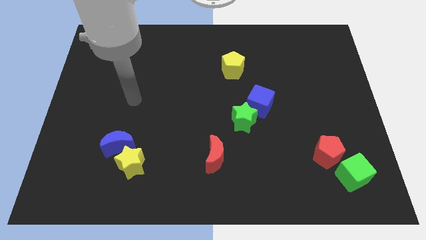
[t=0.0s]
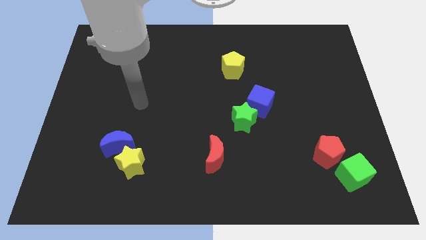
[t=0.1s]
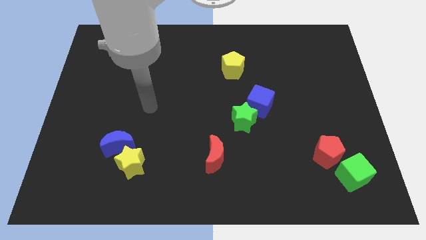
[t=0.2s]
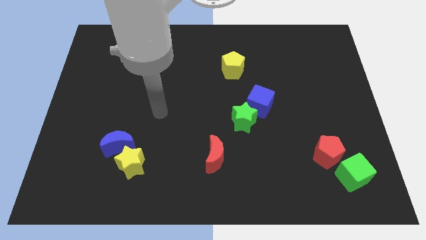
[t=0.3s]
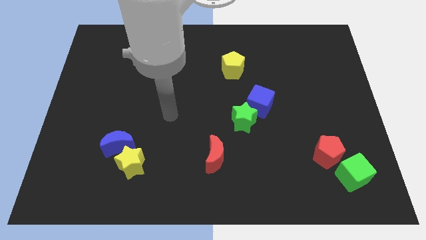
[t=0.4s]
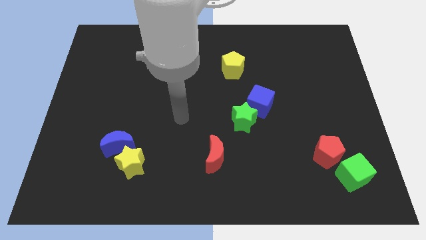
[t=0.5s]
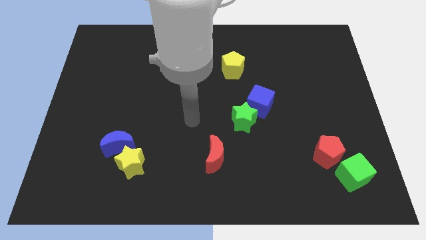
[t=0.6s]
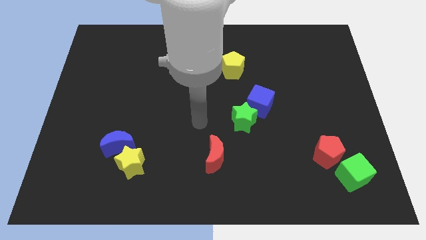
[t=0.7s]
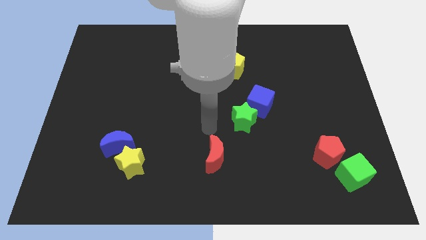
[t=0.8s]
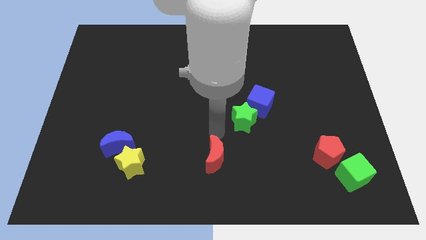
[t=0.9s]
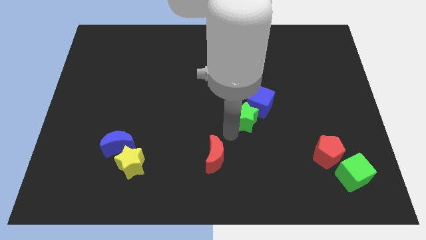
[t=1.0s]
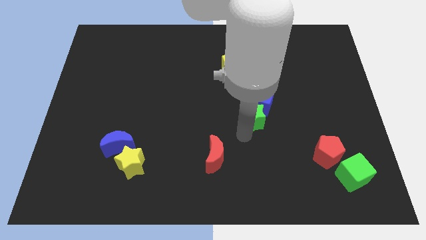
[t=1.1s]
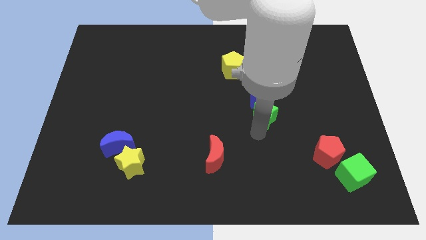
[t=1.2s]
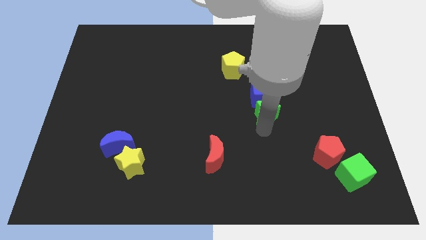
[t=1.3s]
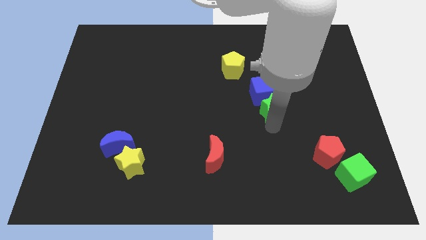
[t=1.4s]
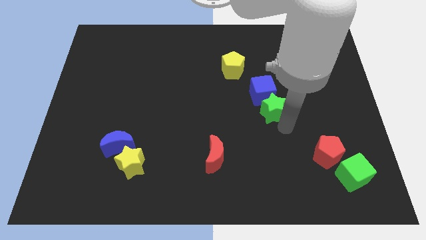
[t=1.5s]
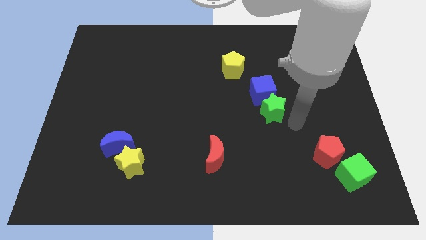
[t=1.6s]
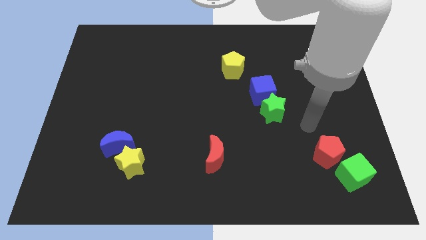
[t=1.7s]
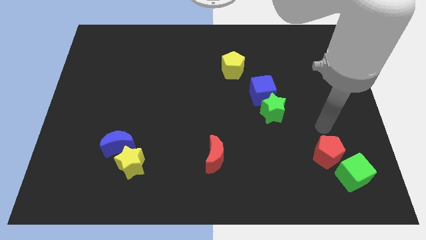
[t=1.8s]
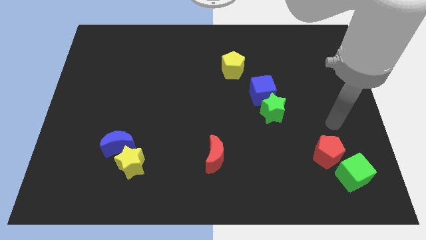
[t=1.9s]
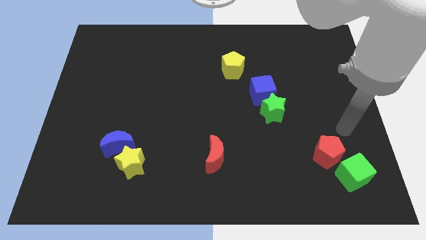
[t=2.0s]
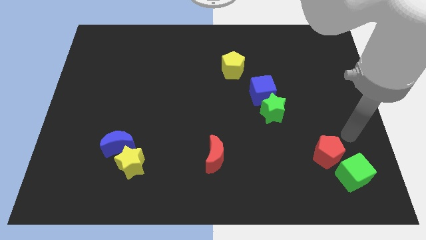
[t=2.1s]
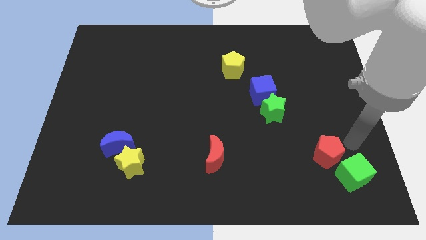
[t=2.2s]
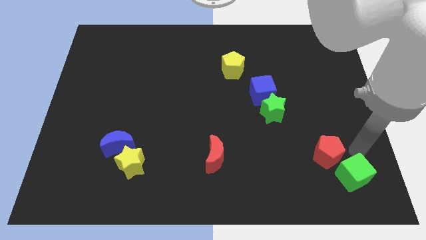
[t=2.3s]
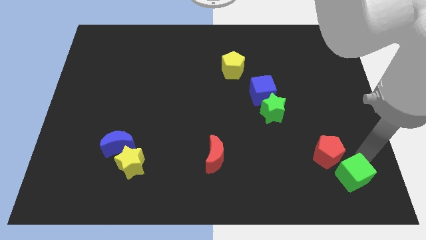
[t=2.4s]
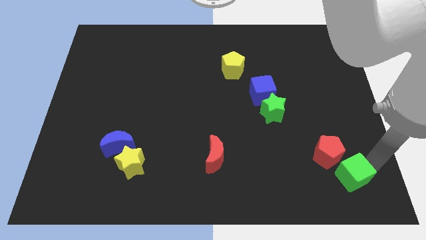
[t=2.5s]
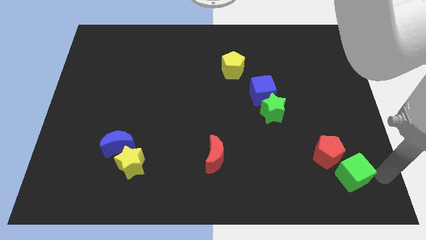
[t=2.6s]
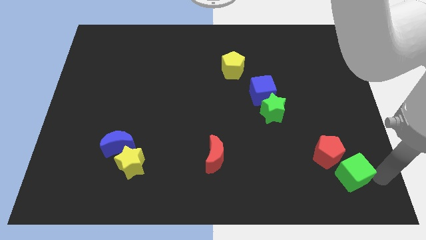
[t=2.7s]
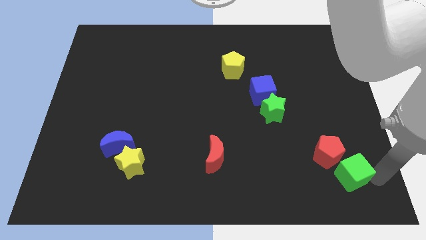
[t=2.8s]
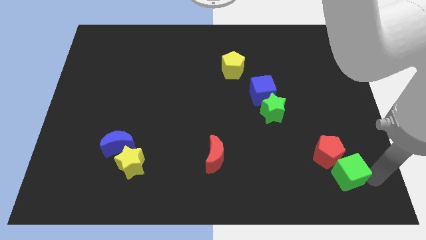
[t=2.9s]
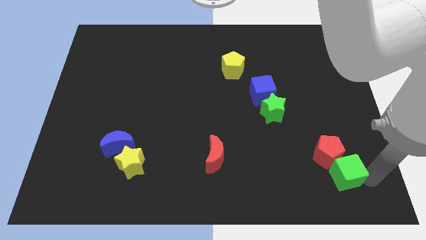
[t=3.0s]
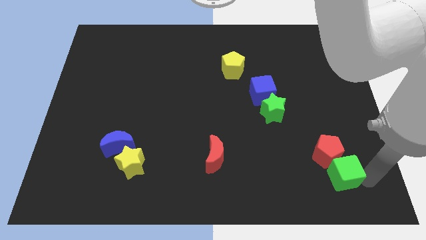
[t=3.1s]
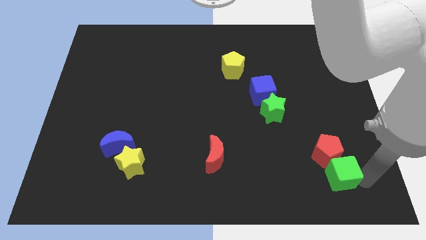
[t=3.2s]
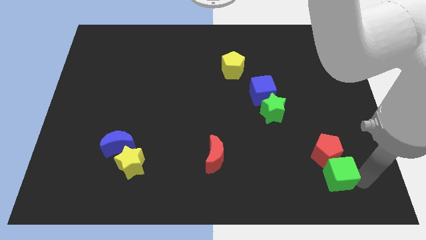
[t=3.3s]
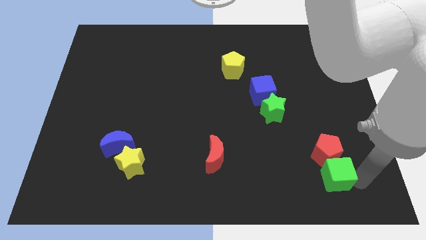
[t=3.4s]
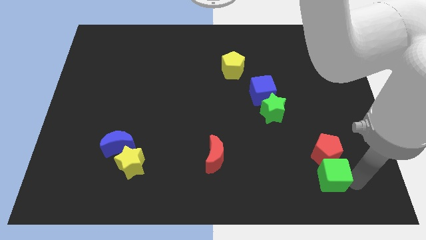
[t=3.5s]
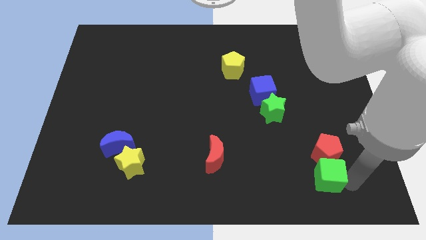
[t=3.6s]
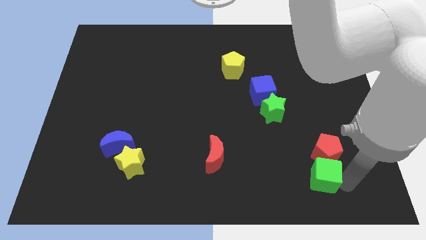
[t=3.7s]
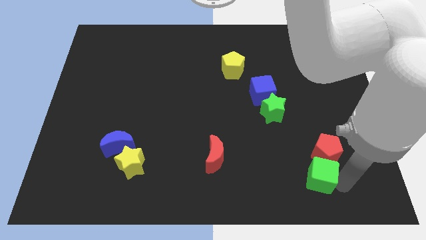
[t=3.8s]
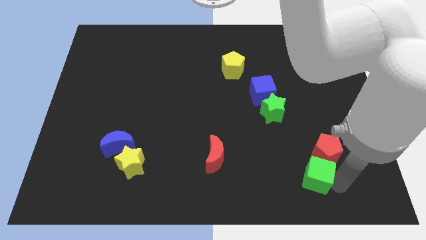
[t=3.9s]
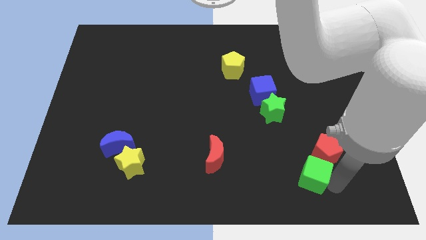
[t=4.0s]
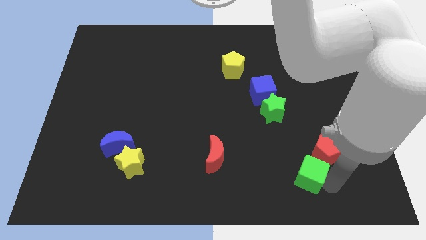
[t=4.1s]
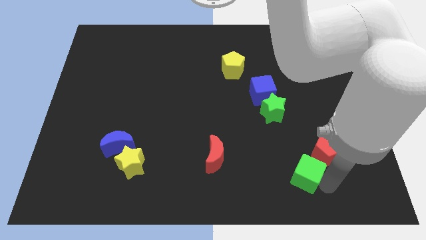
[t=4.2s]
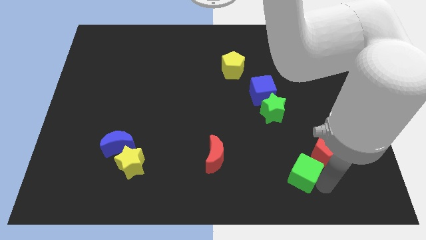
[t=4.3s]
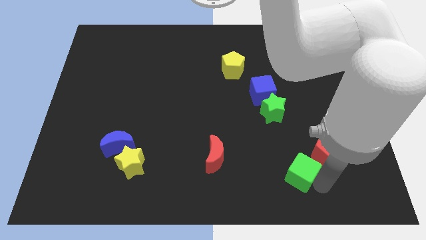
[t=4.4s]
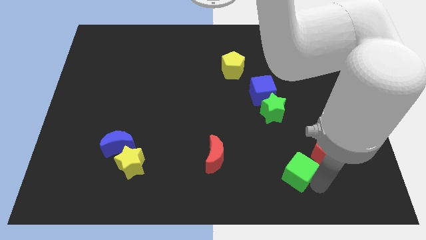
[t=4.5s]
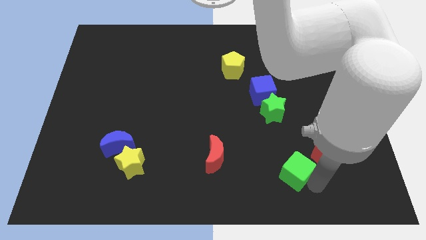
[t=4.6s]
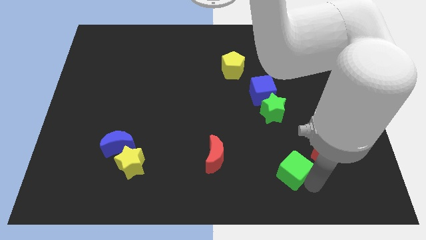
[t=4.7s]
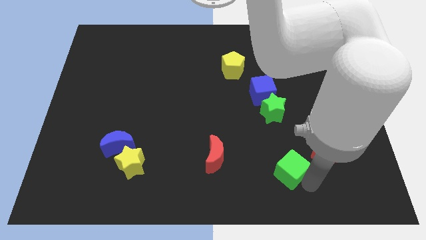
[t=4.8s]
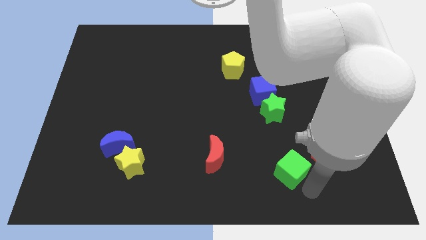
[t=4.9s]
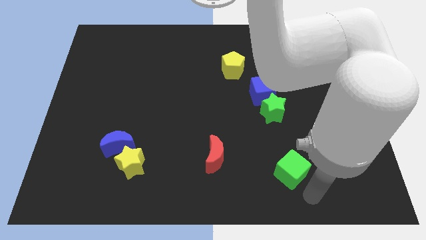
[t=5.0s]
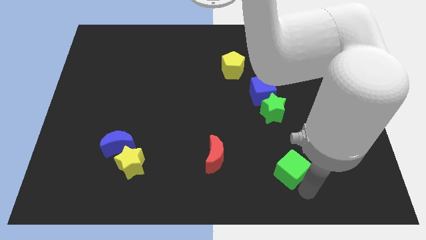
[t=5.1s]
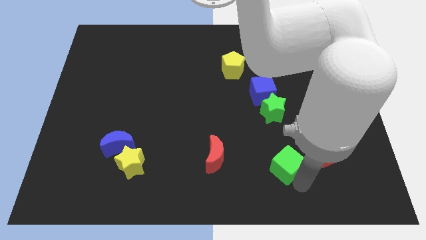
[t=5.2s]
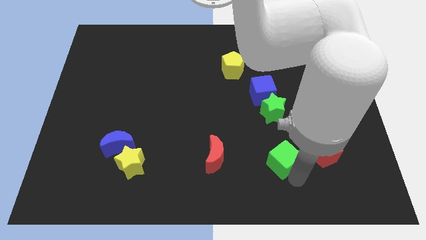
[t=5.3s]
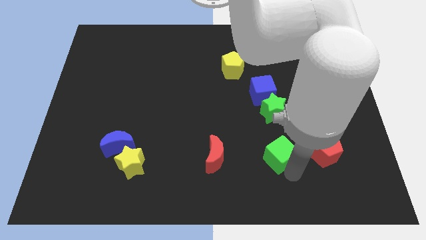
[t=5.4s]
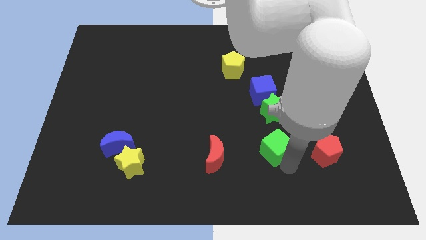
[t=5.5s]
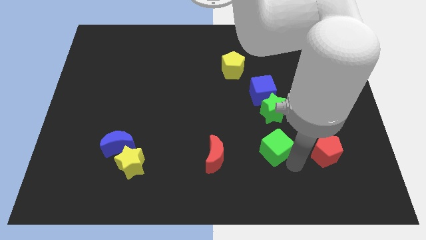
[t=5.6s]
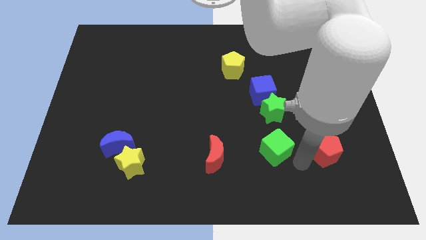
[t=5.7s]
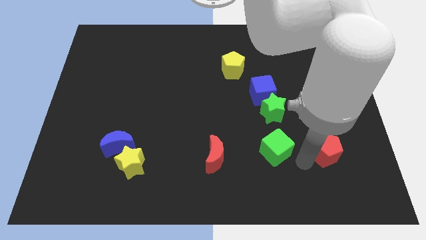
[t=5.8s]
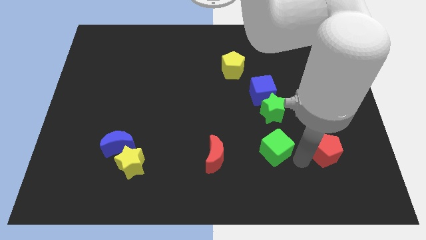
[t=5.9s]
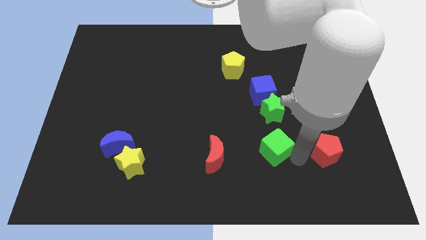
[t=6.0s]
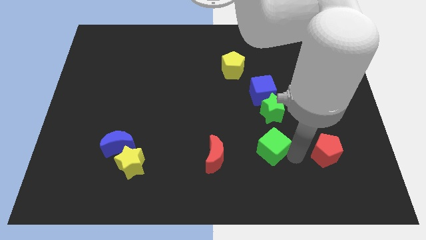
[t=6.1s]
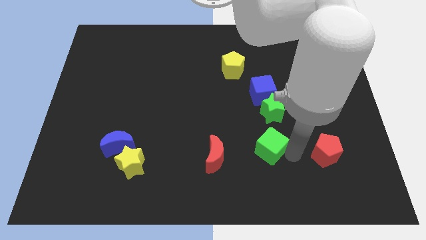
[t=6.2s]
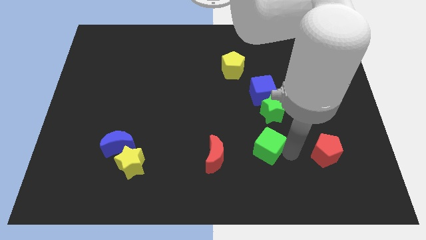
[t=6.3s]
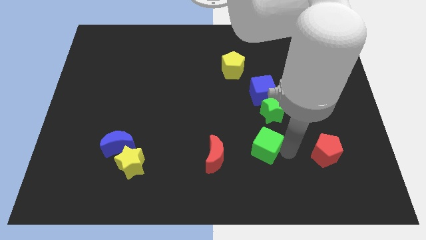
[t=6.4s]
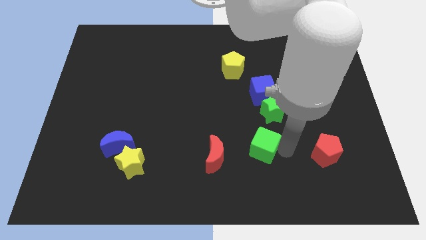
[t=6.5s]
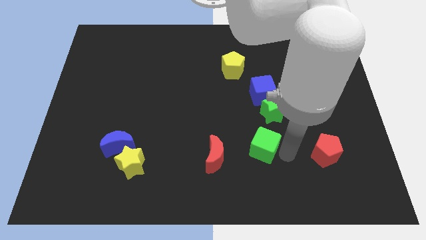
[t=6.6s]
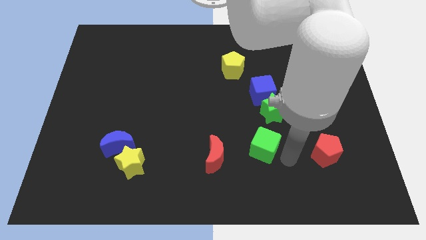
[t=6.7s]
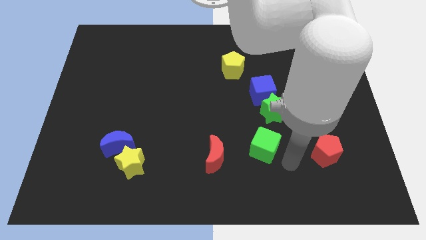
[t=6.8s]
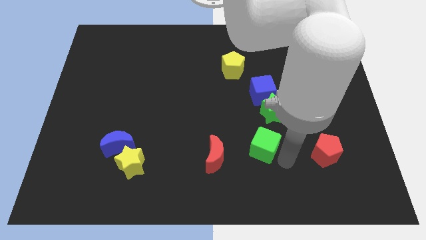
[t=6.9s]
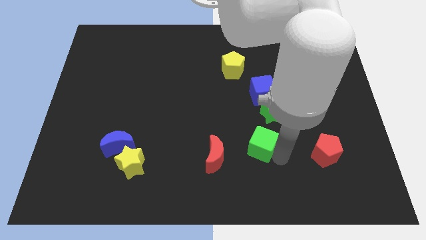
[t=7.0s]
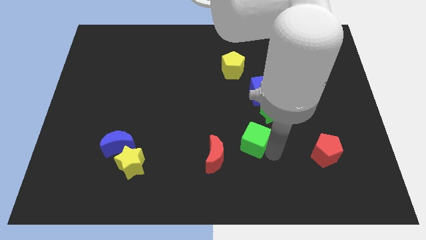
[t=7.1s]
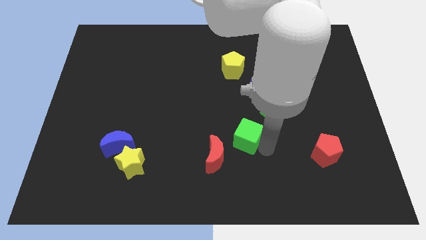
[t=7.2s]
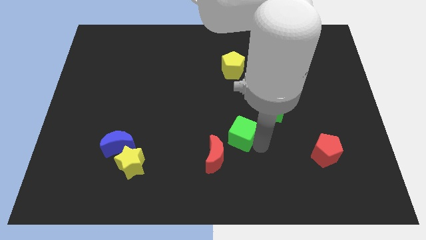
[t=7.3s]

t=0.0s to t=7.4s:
put the green cube to the center of the board

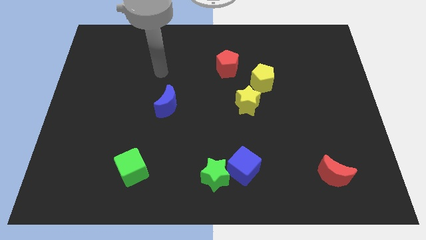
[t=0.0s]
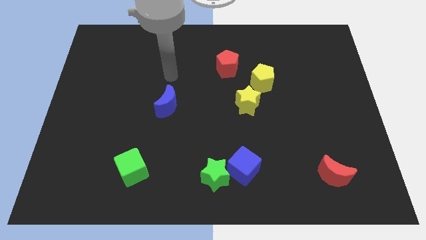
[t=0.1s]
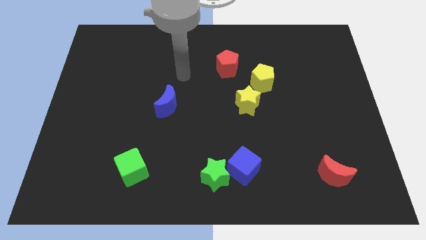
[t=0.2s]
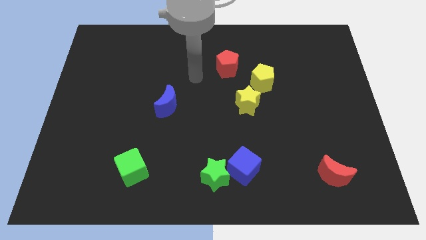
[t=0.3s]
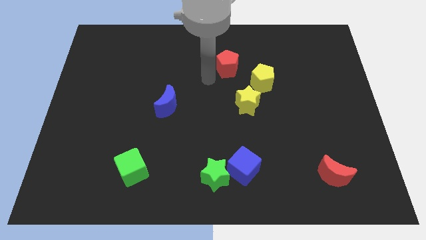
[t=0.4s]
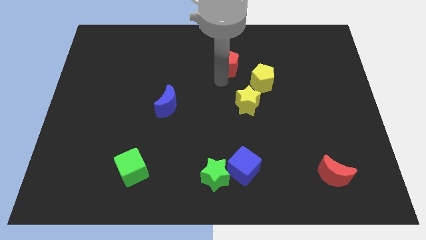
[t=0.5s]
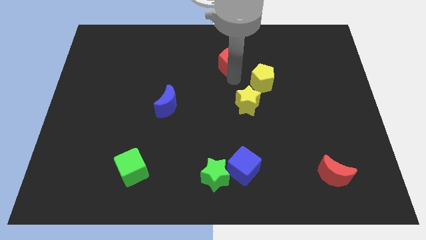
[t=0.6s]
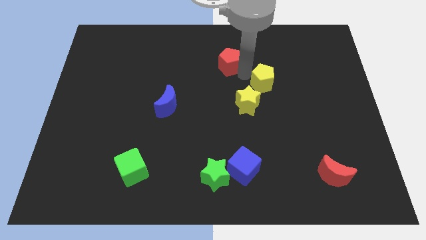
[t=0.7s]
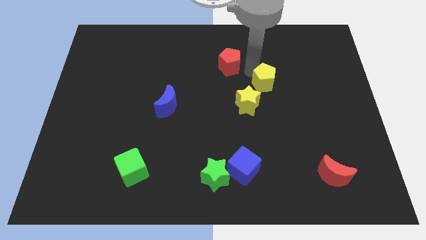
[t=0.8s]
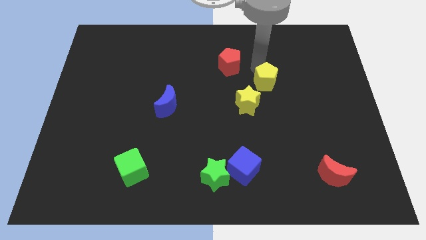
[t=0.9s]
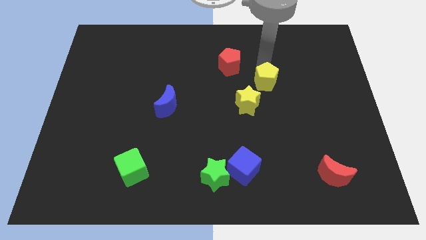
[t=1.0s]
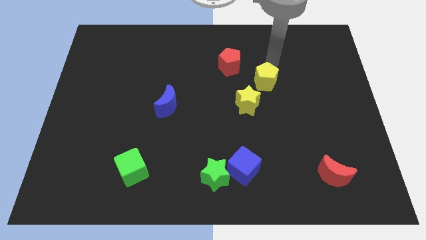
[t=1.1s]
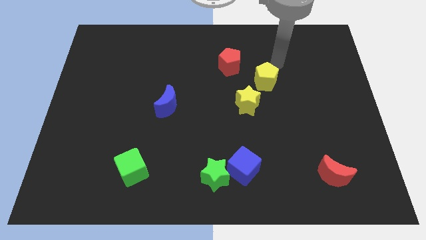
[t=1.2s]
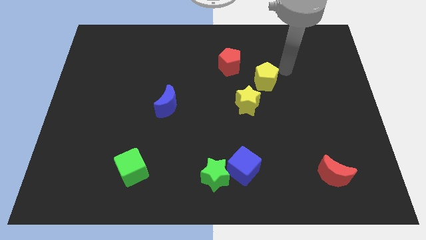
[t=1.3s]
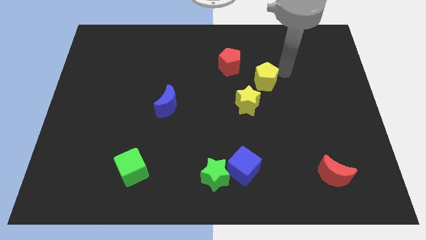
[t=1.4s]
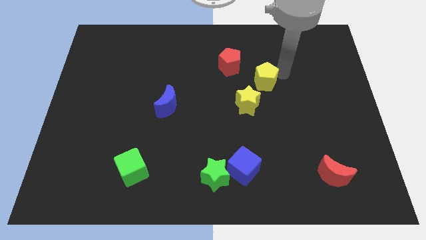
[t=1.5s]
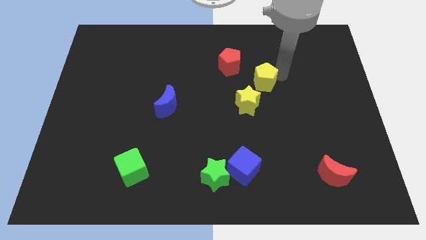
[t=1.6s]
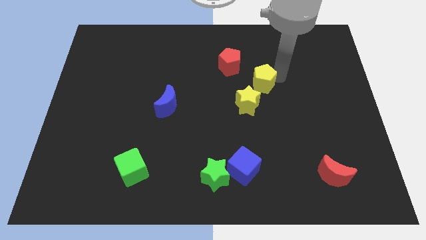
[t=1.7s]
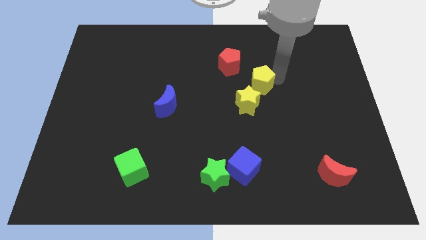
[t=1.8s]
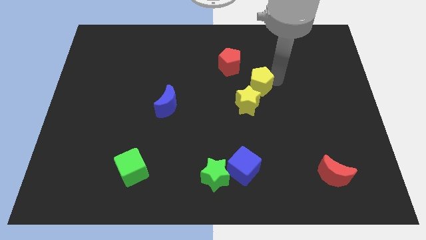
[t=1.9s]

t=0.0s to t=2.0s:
push the yellow pentagon to the middle of the board
